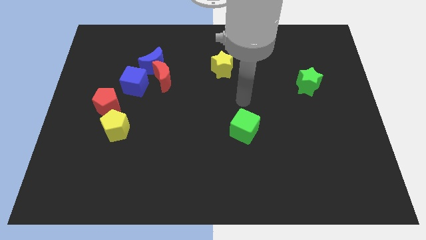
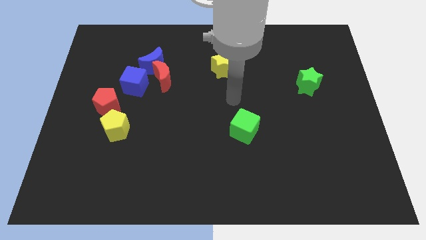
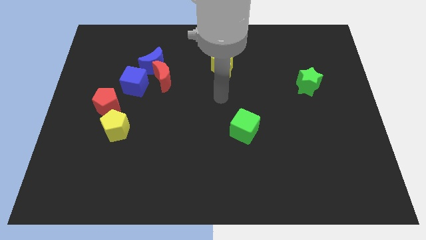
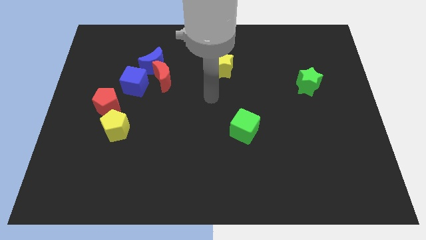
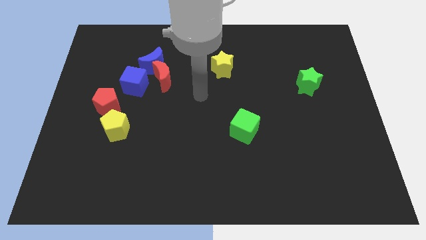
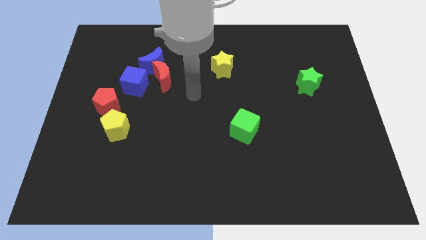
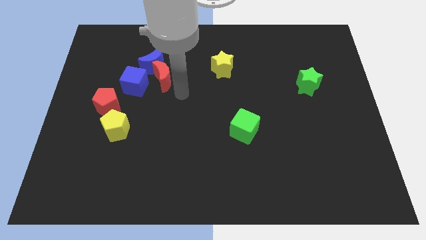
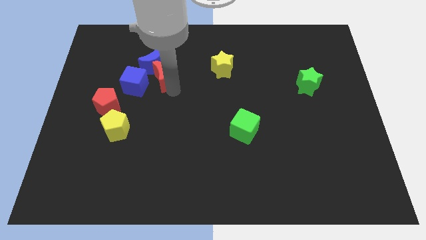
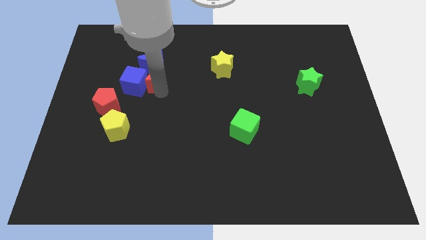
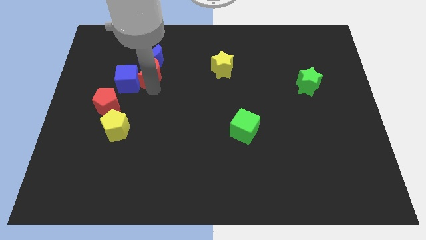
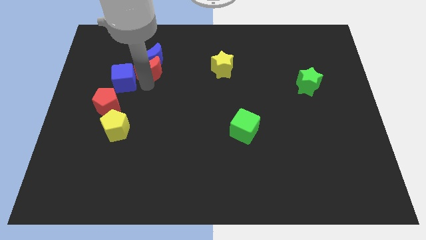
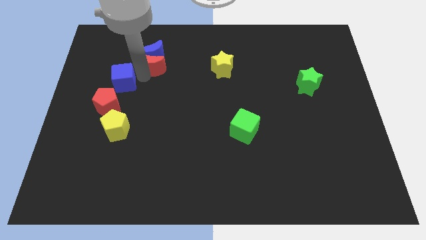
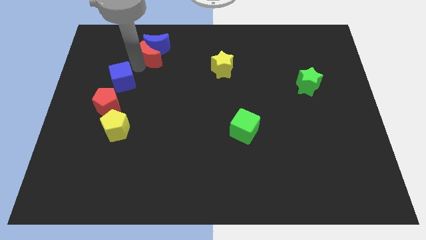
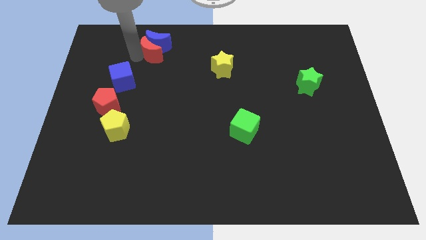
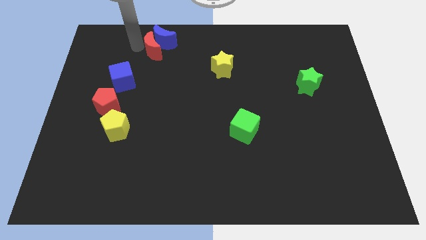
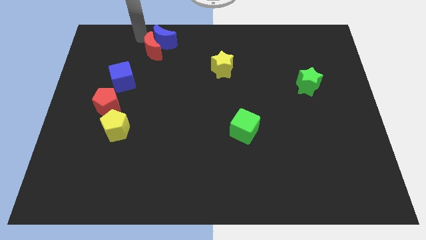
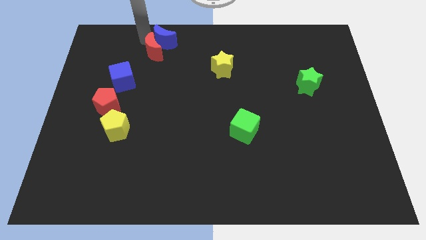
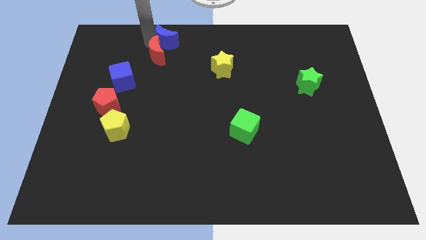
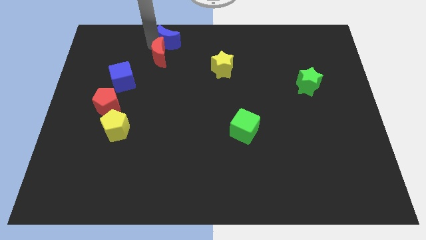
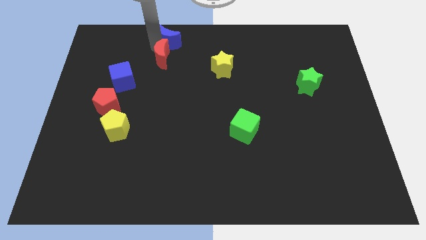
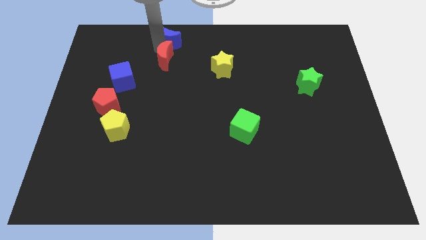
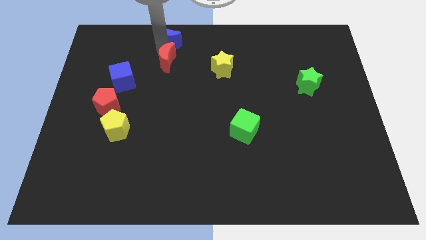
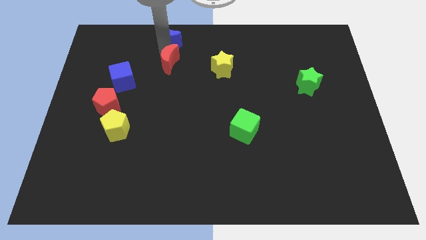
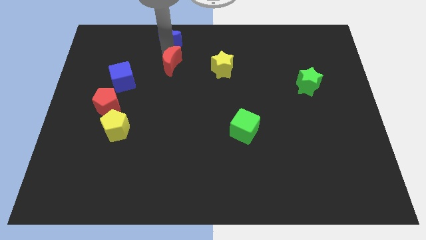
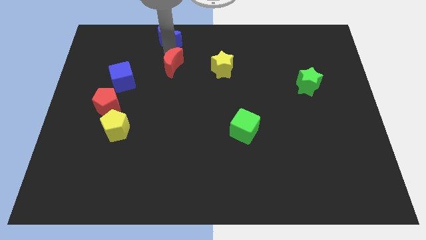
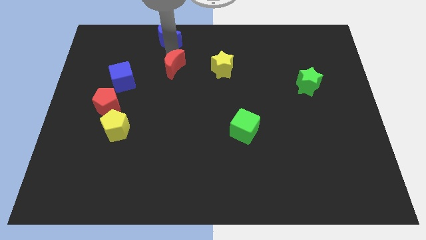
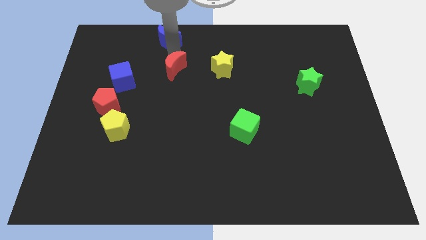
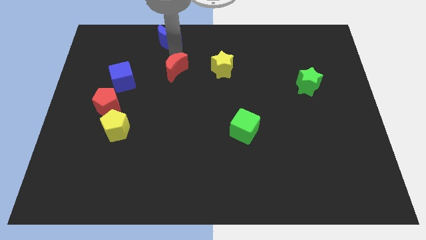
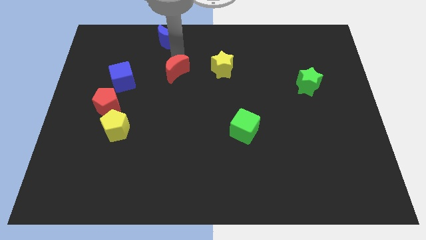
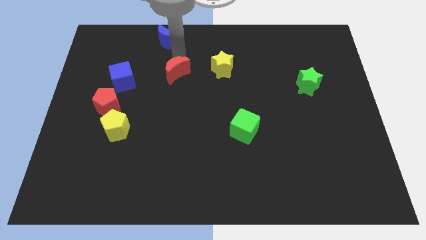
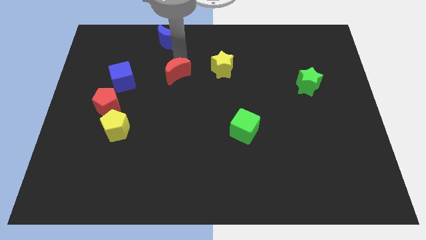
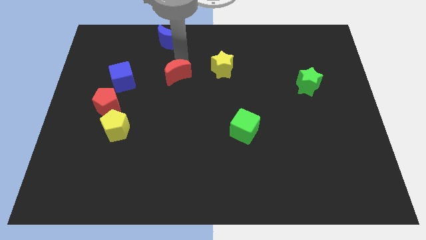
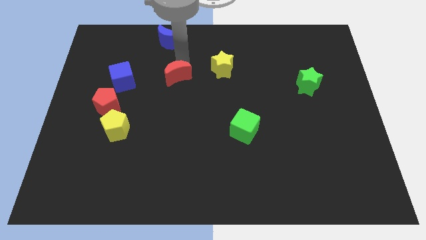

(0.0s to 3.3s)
move the red moon away from the blue moon and blue cube

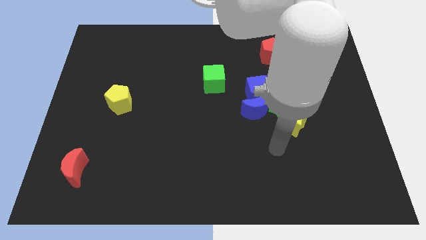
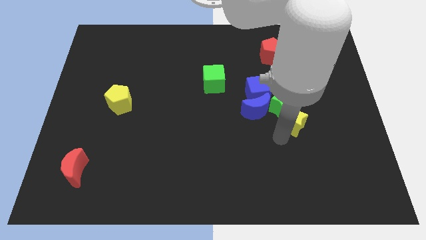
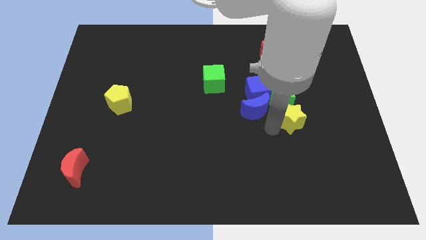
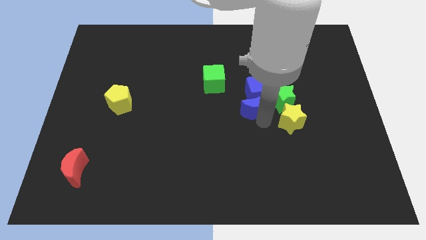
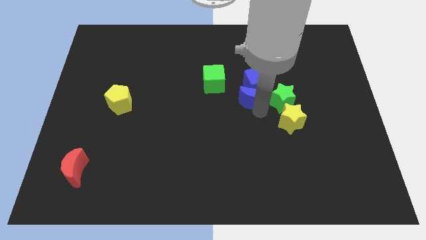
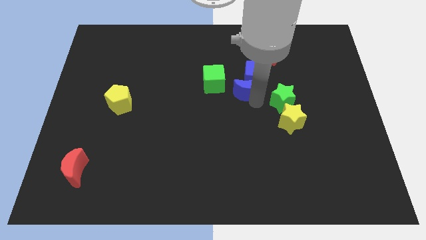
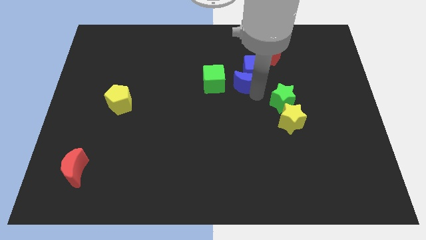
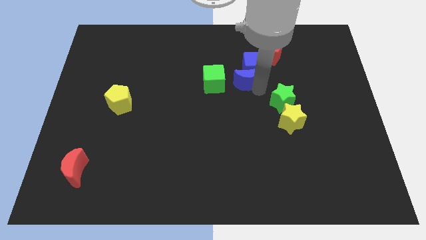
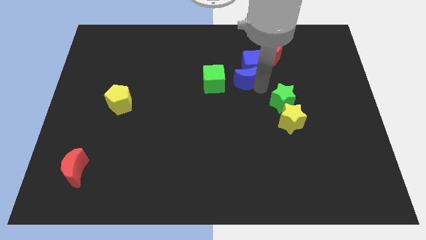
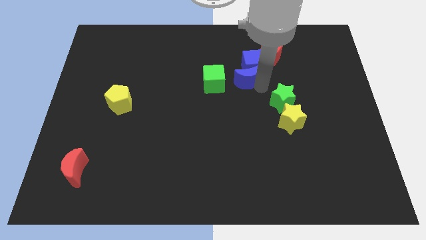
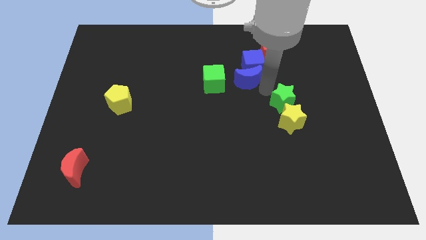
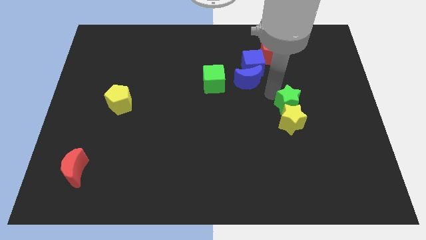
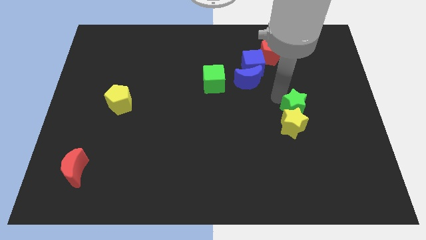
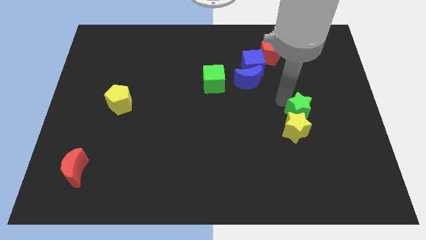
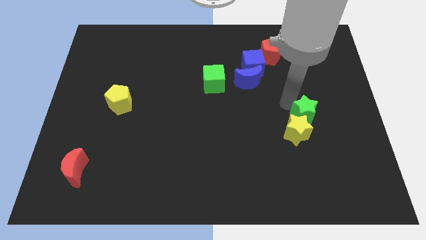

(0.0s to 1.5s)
move the green star away from the group

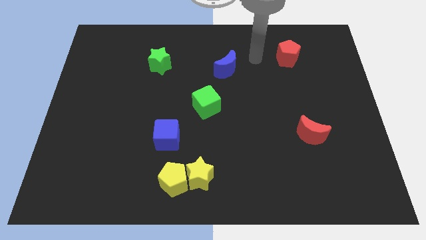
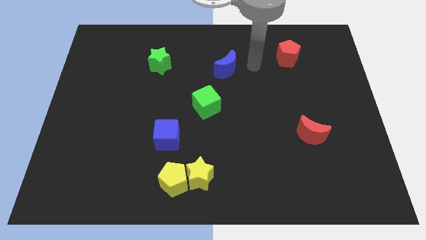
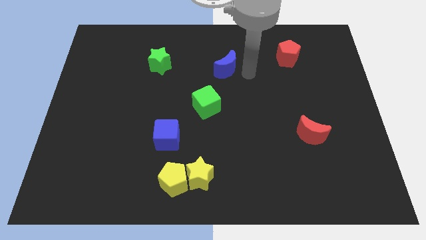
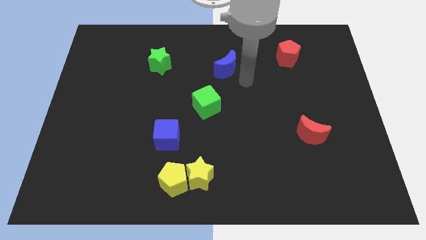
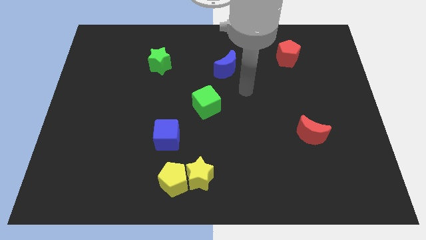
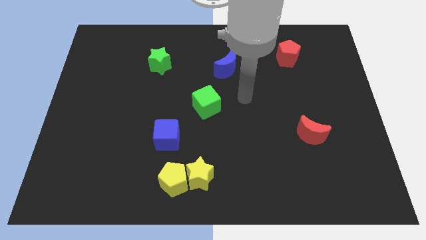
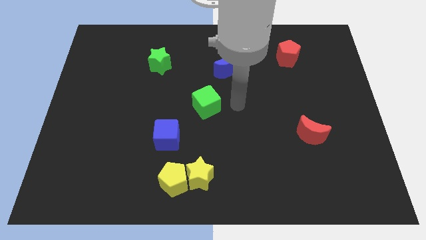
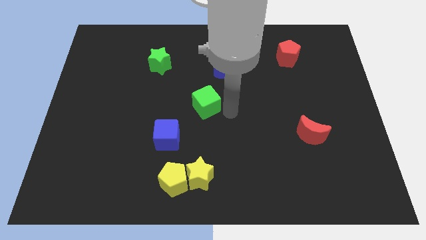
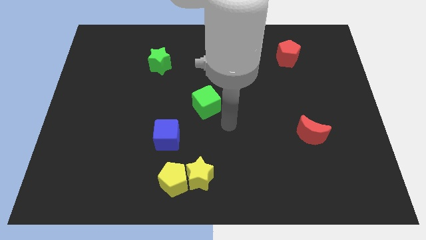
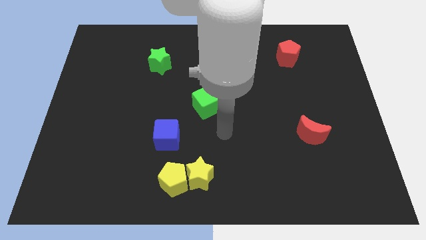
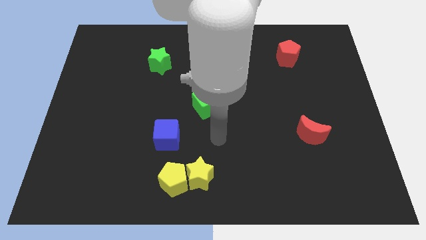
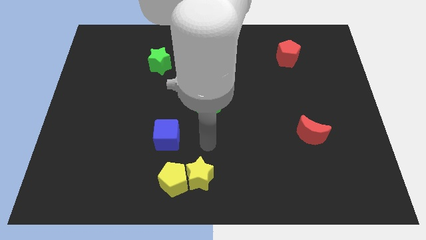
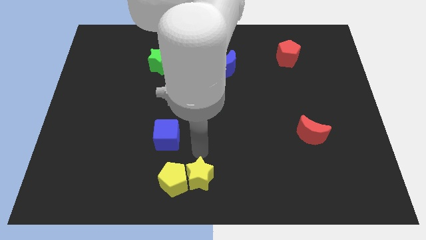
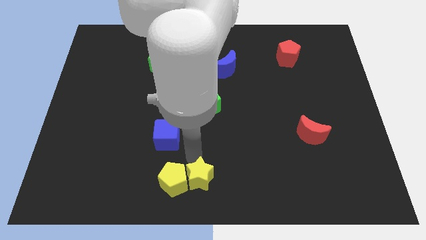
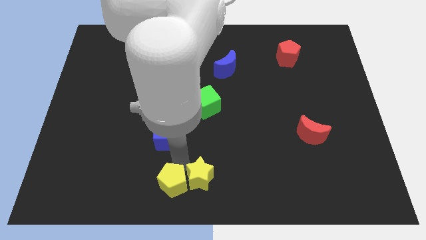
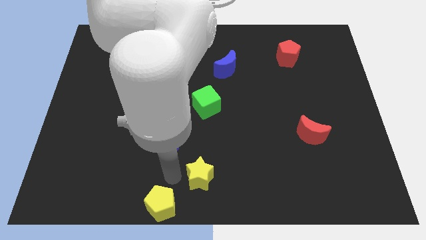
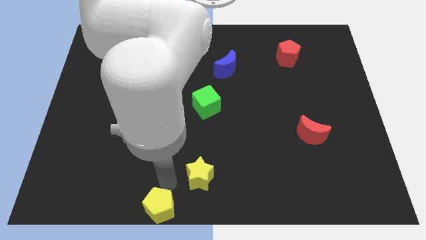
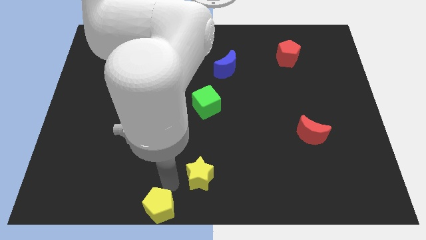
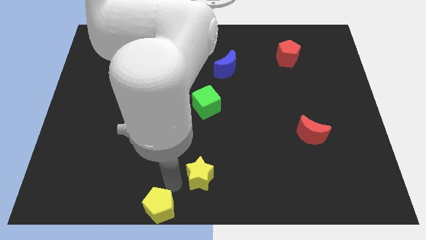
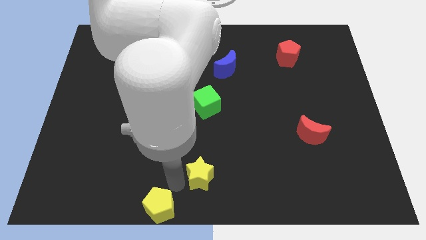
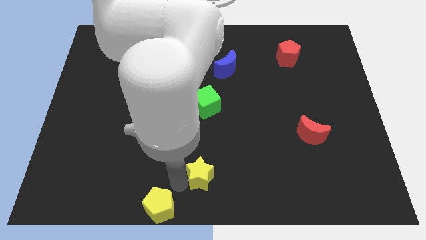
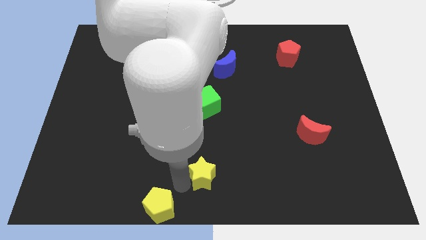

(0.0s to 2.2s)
pull the yellow star apart from the yellow pentagon

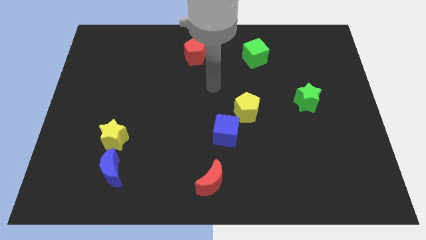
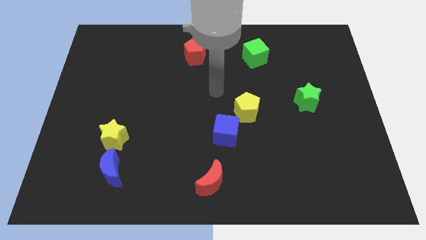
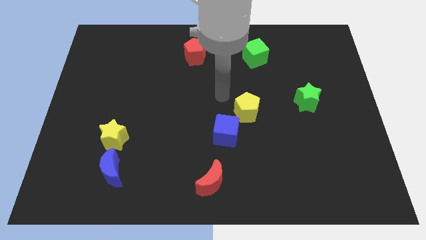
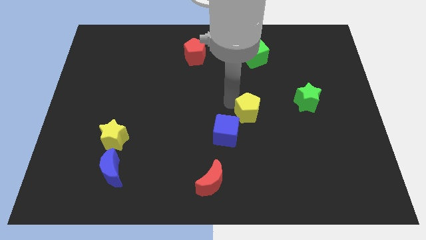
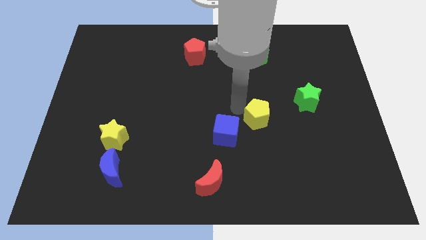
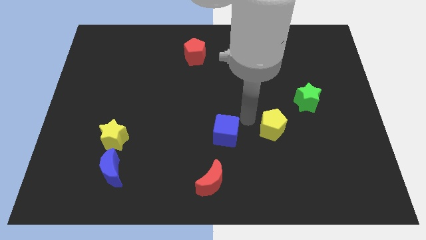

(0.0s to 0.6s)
separate the blue cube from the yellow pentagon

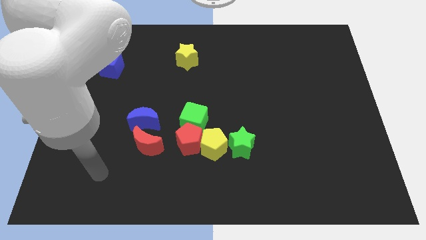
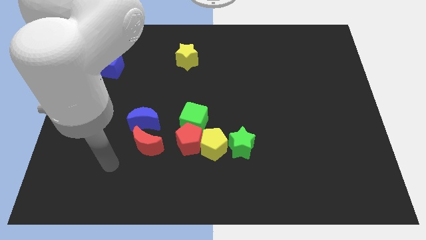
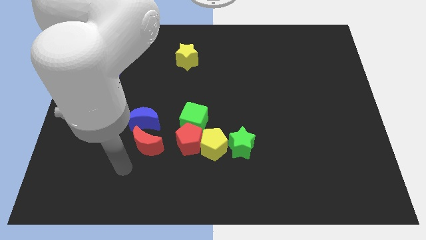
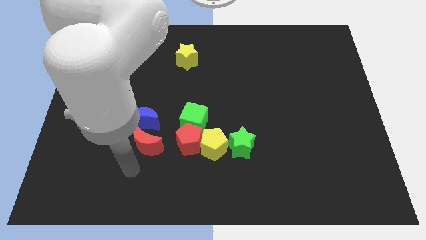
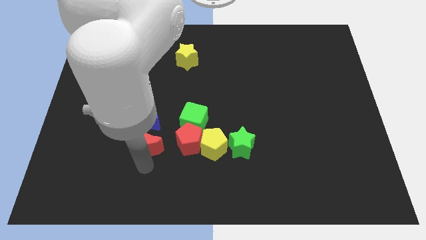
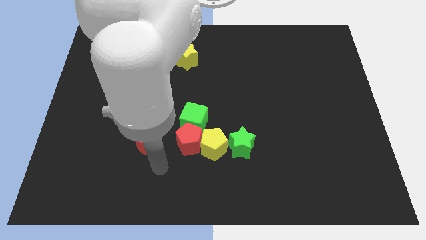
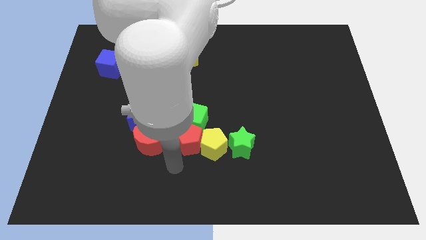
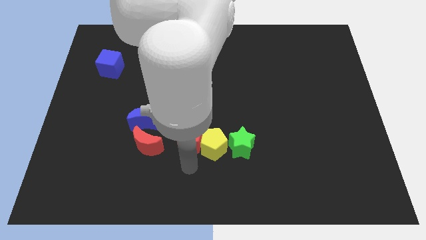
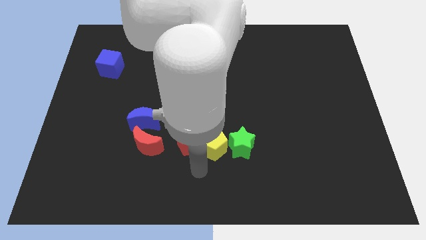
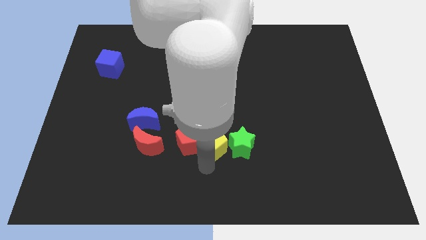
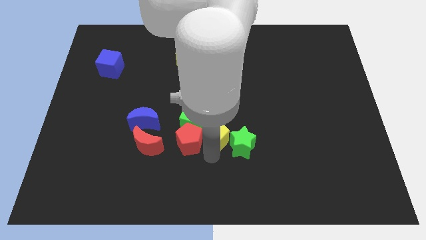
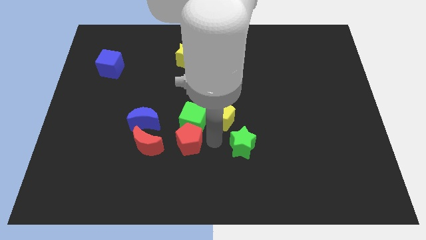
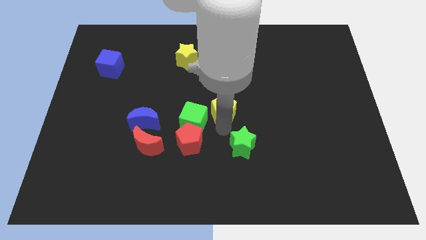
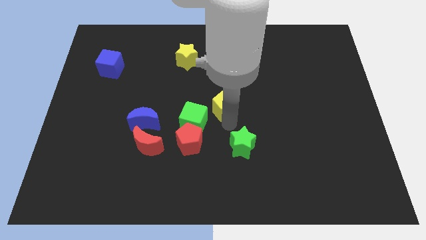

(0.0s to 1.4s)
move the green star away from the yellow pentagon

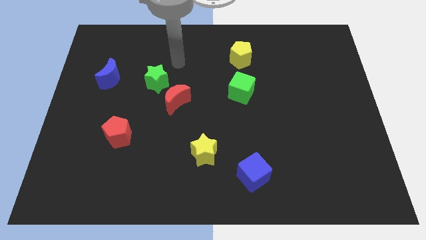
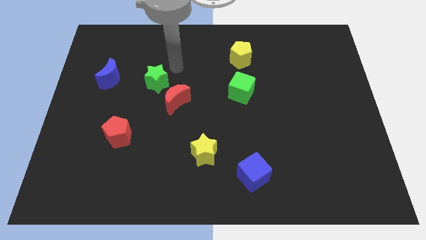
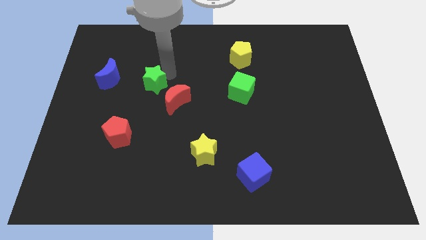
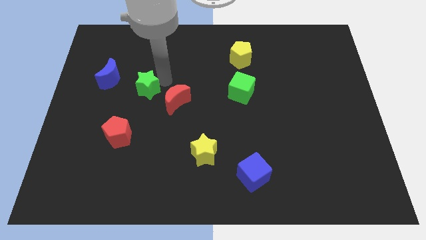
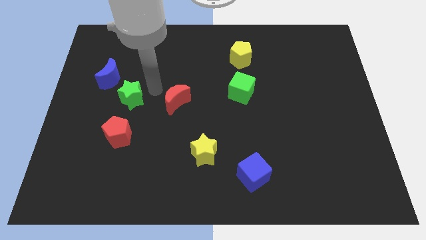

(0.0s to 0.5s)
separate the red moon from the green star
